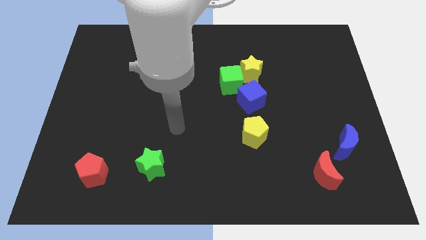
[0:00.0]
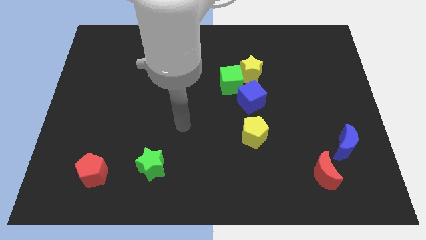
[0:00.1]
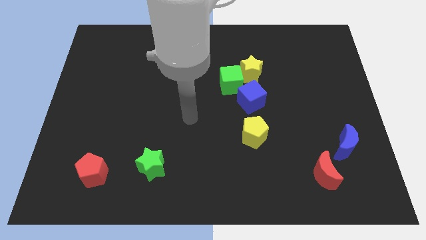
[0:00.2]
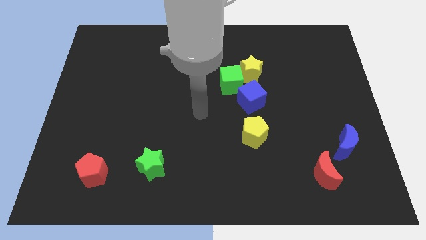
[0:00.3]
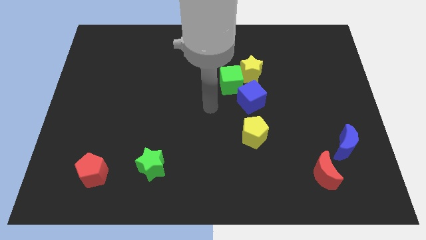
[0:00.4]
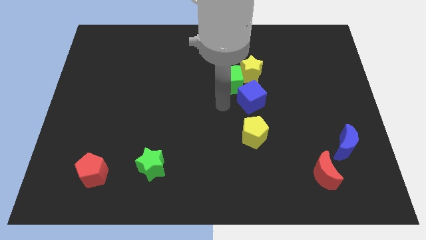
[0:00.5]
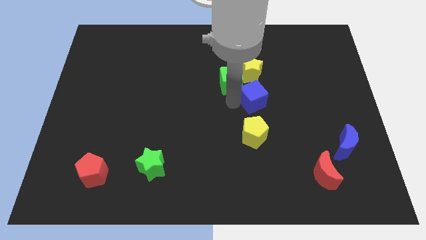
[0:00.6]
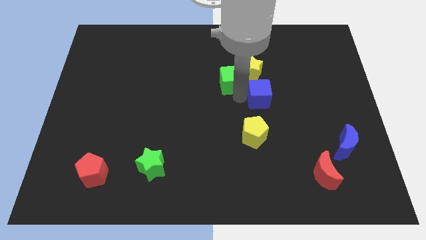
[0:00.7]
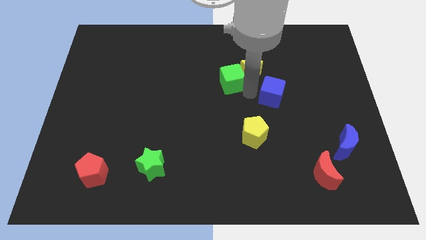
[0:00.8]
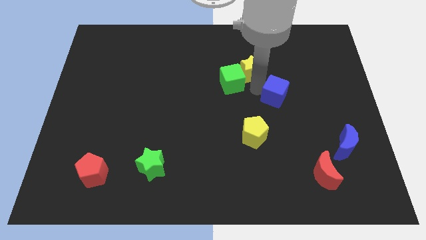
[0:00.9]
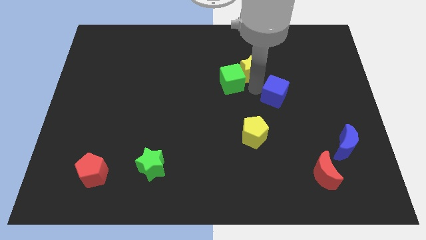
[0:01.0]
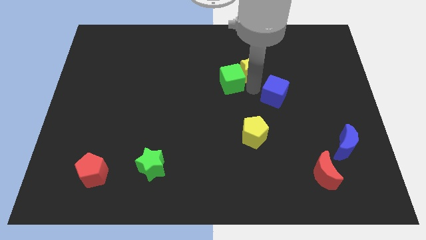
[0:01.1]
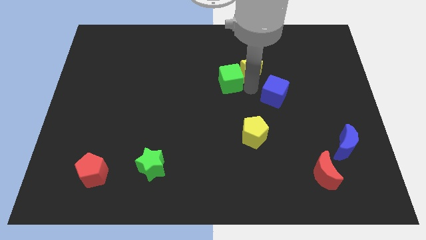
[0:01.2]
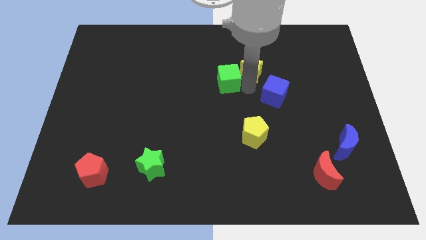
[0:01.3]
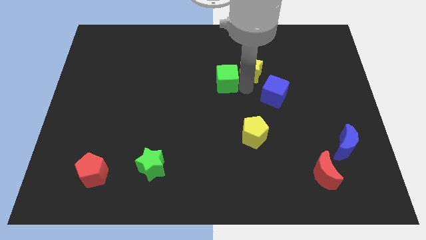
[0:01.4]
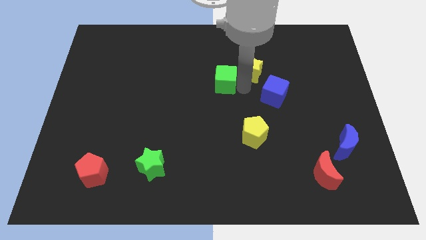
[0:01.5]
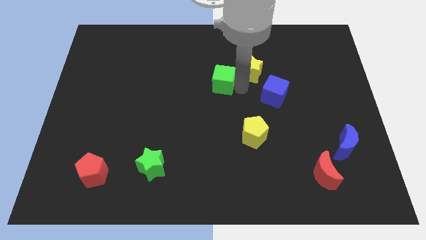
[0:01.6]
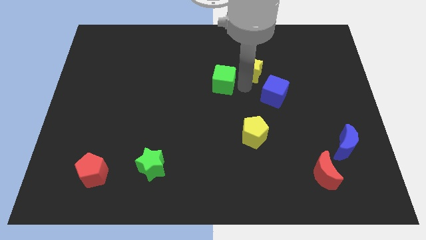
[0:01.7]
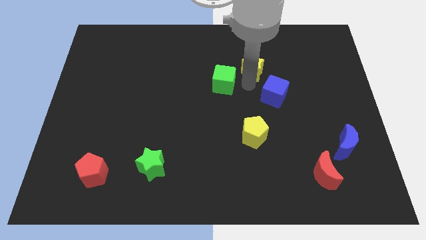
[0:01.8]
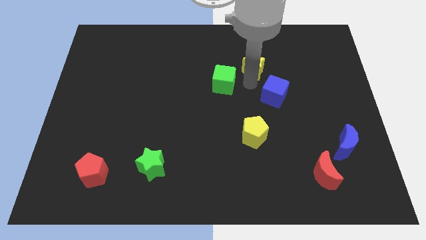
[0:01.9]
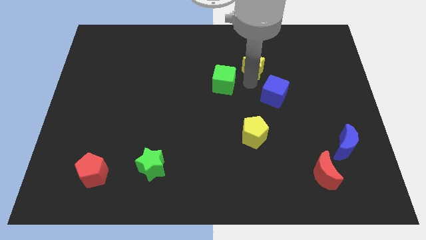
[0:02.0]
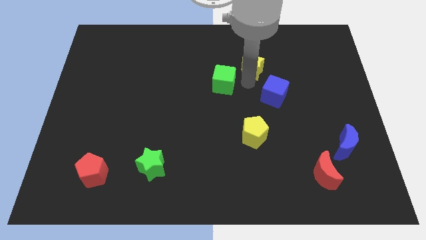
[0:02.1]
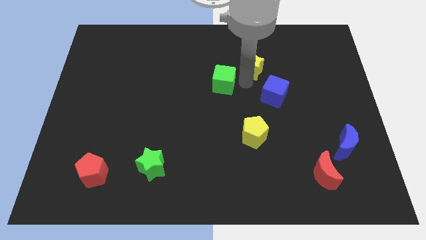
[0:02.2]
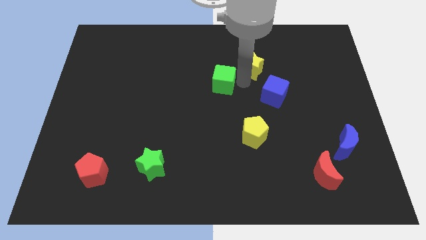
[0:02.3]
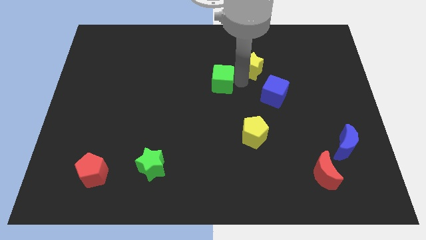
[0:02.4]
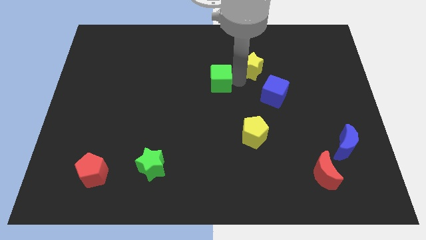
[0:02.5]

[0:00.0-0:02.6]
pull the green cube apart from the yellow star and blue cube

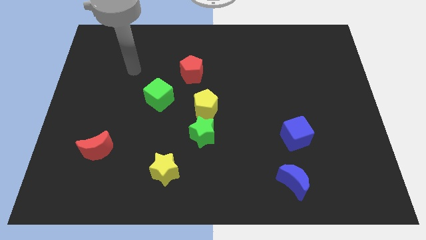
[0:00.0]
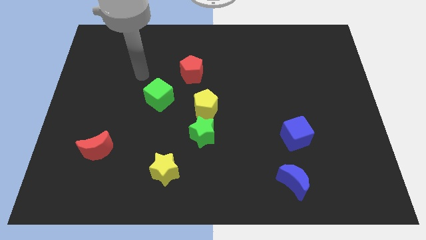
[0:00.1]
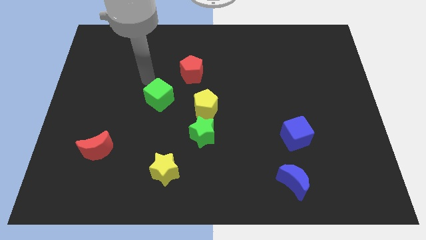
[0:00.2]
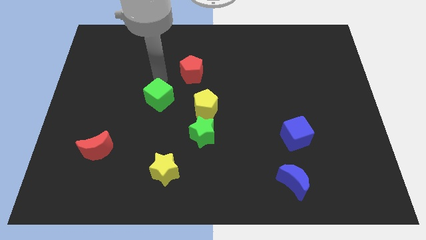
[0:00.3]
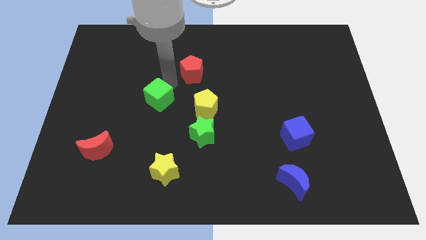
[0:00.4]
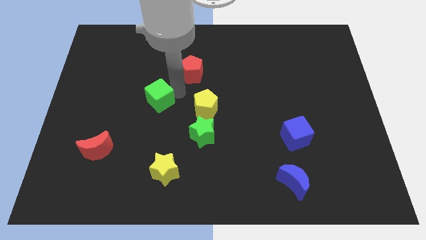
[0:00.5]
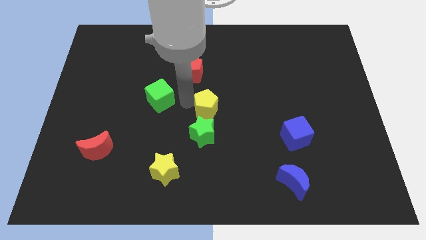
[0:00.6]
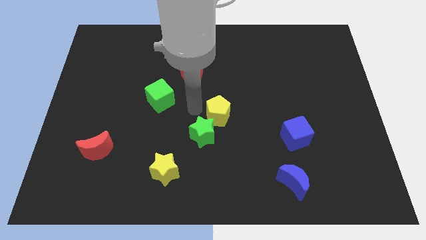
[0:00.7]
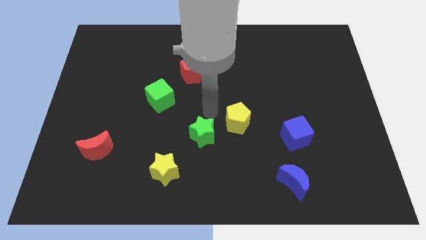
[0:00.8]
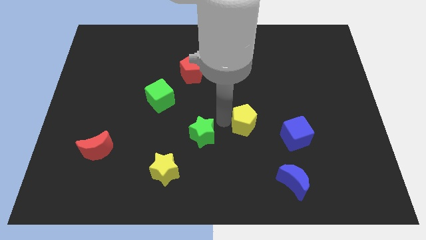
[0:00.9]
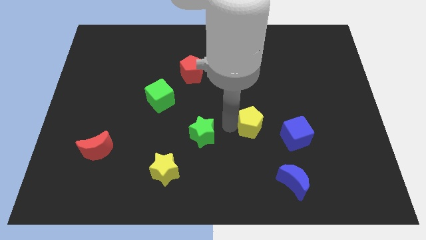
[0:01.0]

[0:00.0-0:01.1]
move the green star away from the yellow pentagon

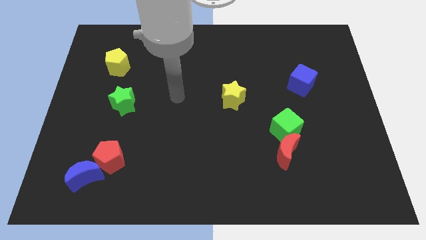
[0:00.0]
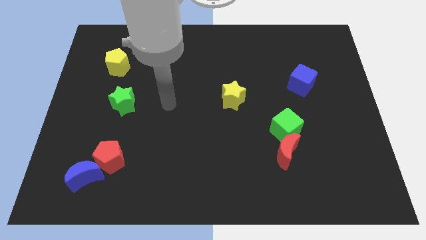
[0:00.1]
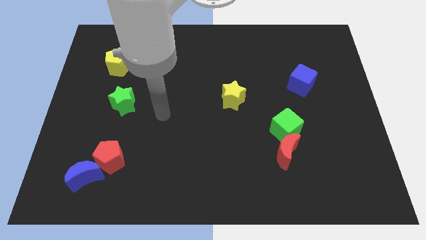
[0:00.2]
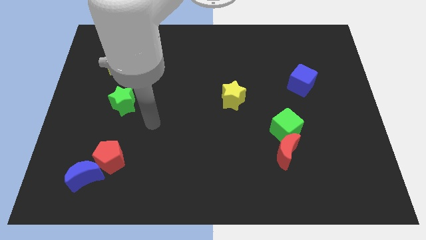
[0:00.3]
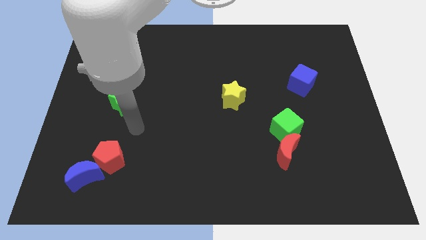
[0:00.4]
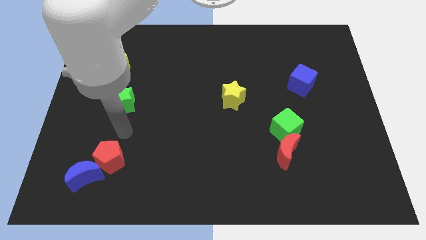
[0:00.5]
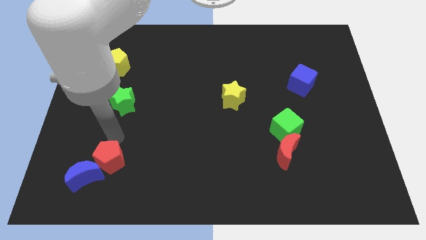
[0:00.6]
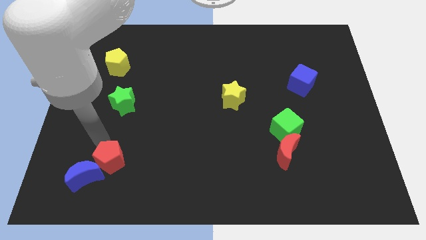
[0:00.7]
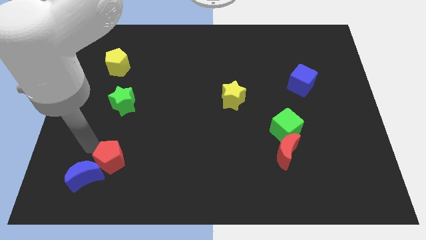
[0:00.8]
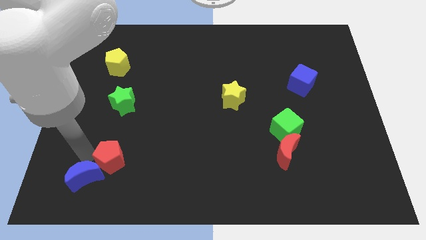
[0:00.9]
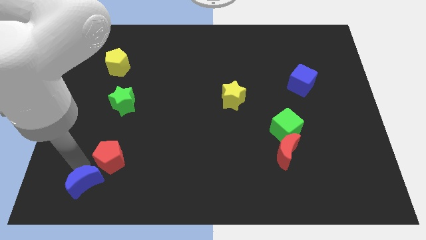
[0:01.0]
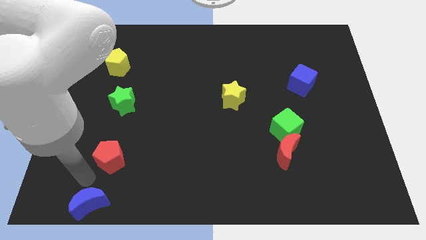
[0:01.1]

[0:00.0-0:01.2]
pull the red pentagon apart from the blue moon

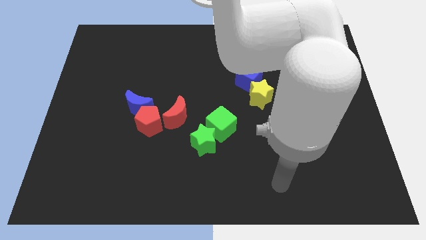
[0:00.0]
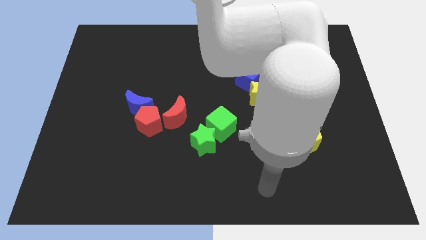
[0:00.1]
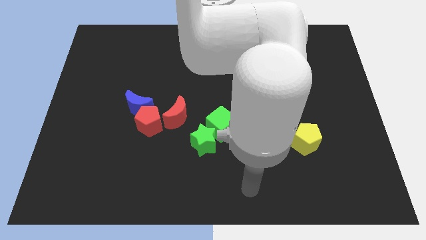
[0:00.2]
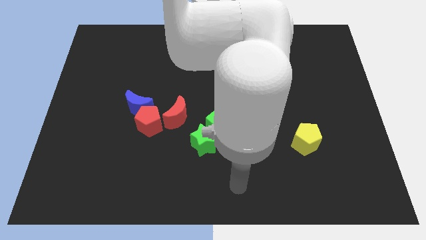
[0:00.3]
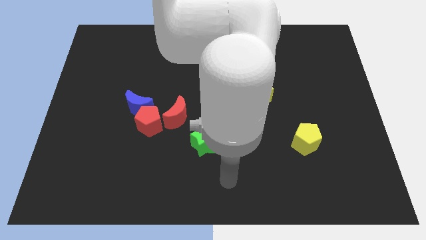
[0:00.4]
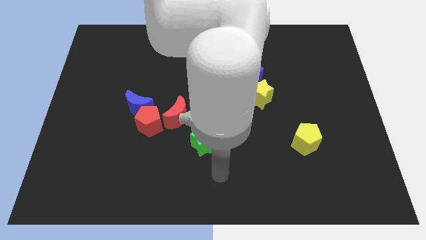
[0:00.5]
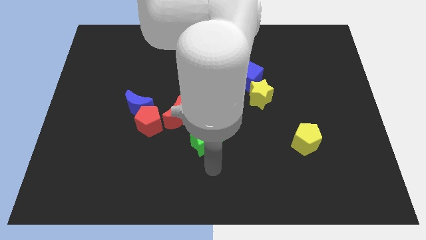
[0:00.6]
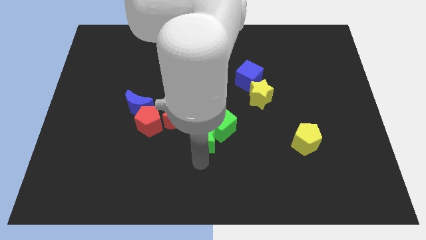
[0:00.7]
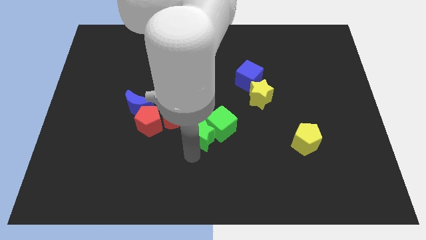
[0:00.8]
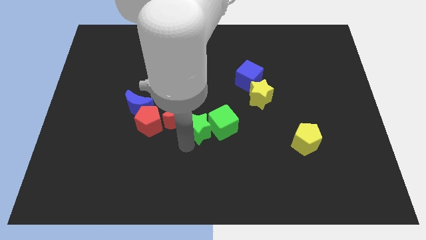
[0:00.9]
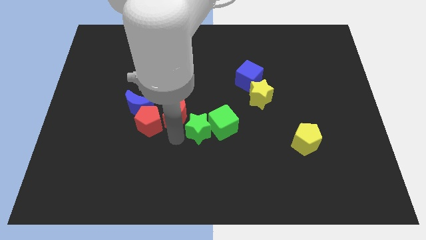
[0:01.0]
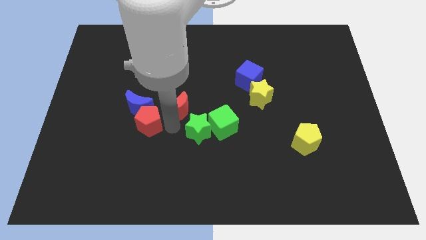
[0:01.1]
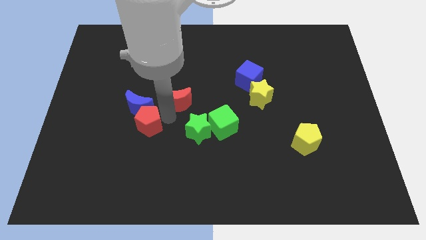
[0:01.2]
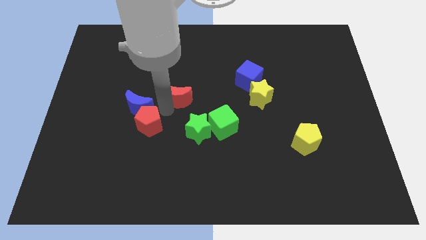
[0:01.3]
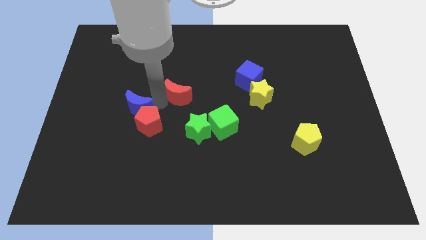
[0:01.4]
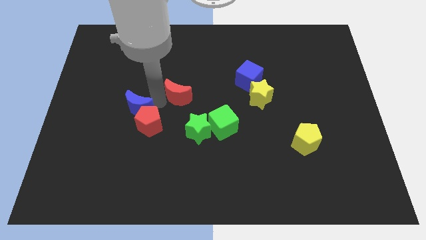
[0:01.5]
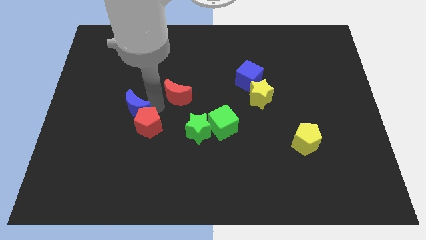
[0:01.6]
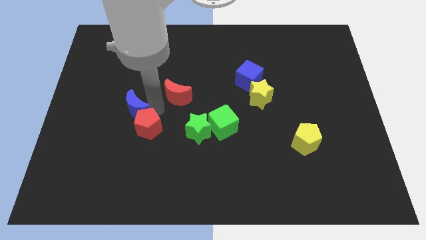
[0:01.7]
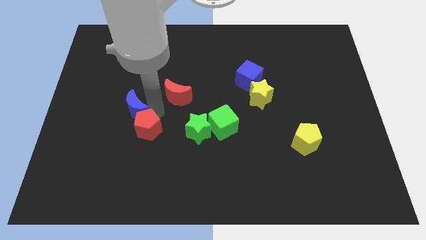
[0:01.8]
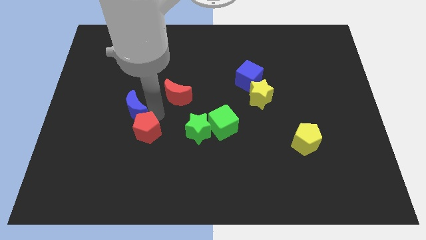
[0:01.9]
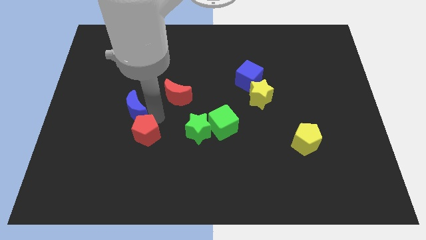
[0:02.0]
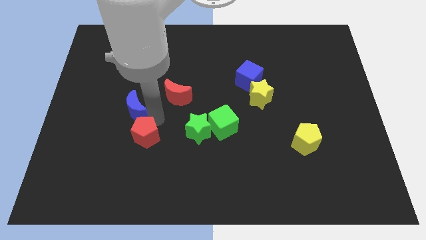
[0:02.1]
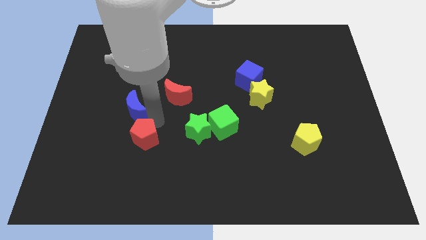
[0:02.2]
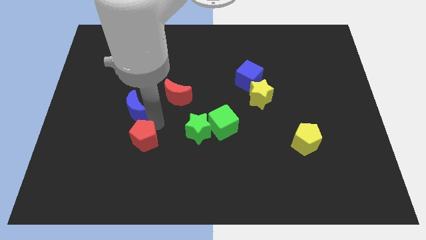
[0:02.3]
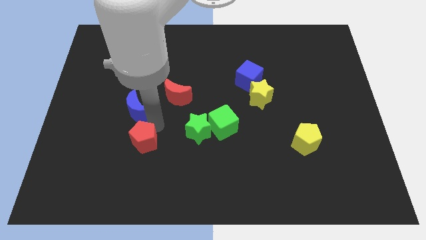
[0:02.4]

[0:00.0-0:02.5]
separate the red pentagon from the blue moon and red moon

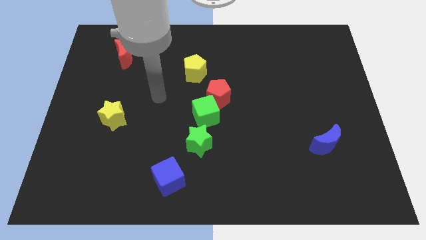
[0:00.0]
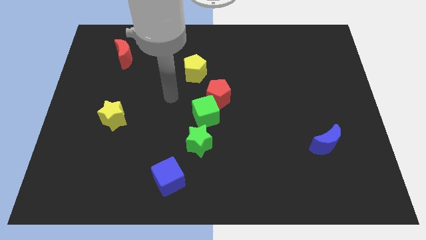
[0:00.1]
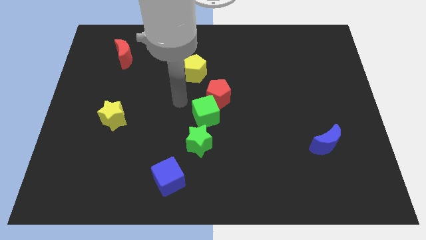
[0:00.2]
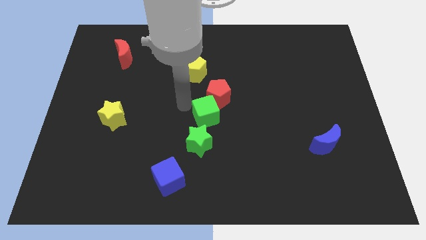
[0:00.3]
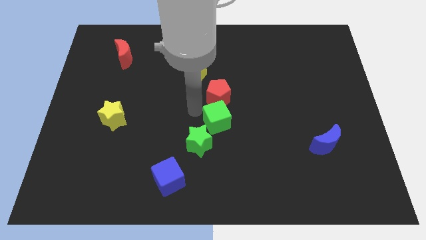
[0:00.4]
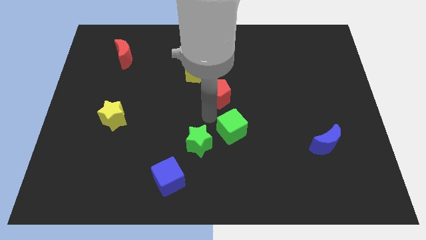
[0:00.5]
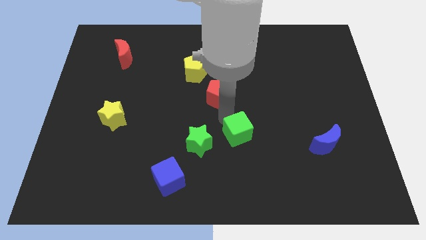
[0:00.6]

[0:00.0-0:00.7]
move the red pentagon away from the green cube

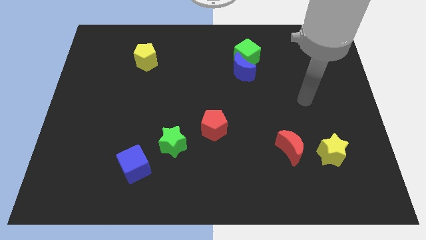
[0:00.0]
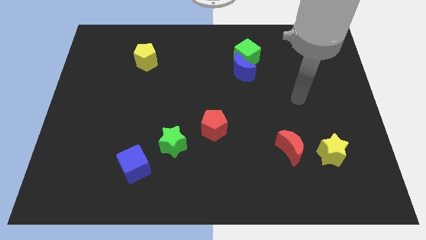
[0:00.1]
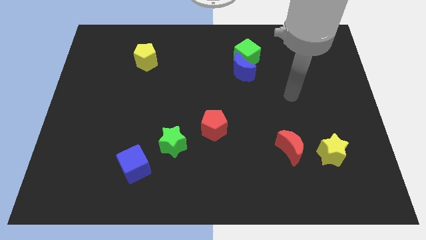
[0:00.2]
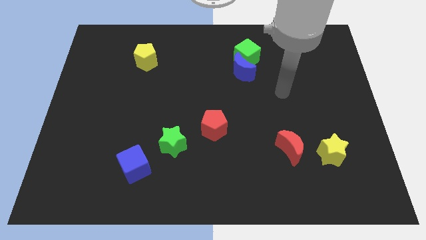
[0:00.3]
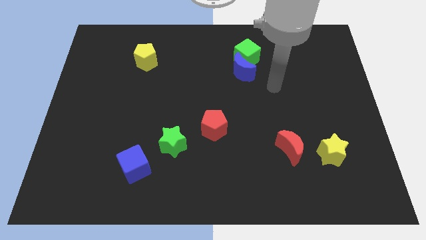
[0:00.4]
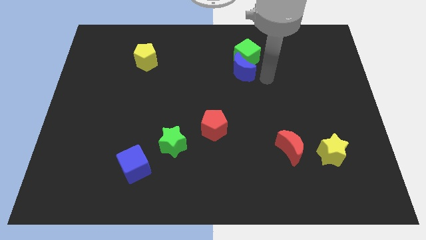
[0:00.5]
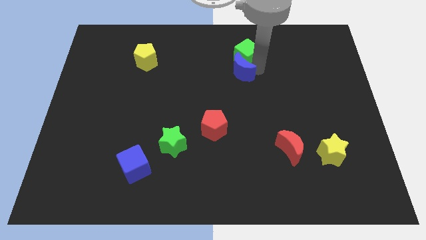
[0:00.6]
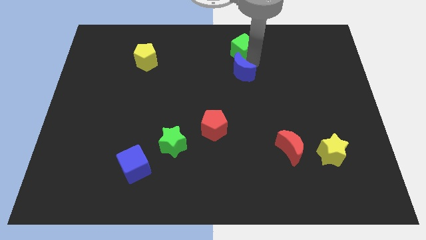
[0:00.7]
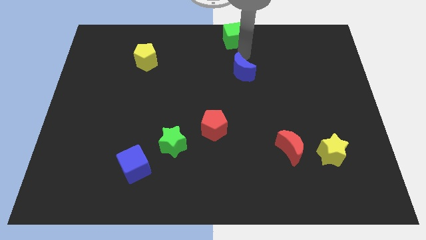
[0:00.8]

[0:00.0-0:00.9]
move the blue moon away from the green cube

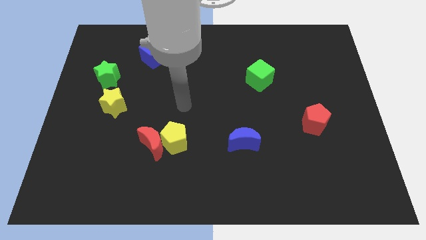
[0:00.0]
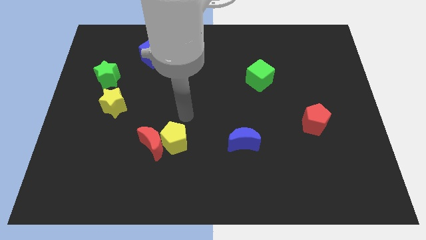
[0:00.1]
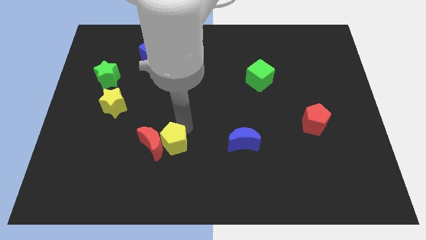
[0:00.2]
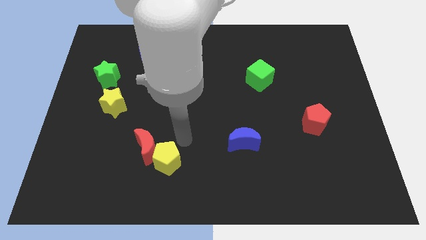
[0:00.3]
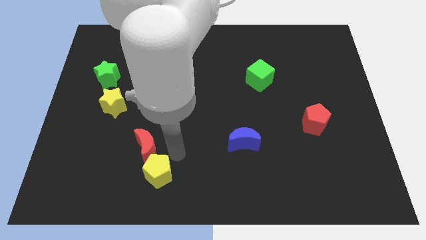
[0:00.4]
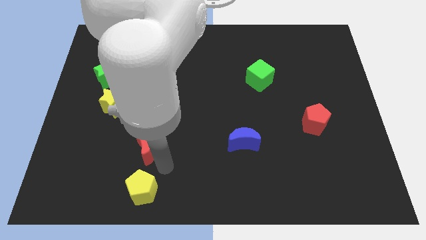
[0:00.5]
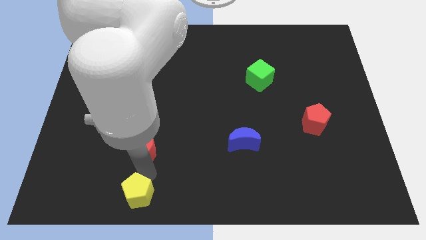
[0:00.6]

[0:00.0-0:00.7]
move the red moon away from the yellow pentagon
